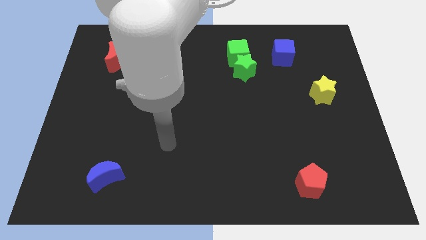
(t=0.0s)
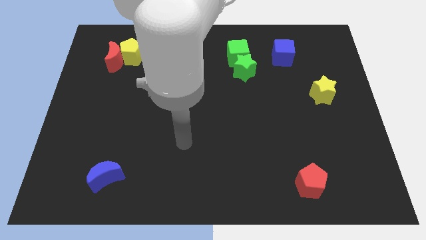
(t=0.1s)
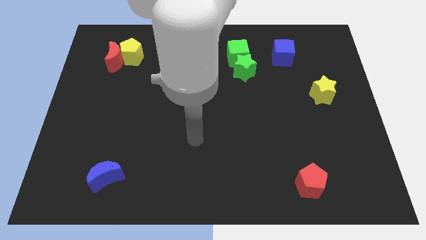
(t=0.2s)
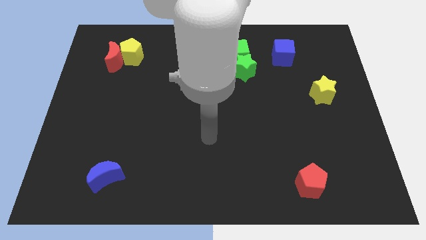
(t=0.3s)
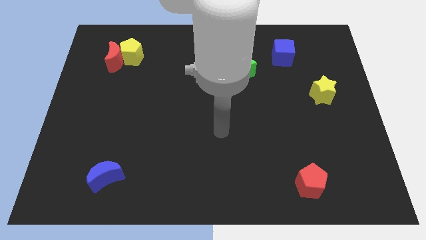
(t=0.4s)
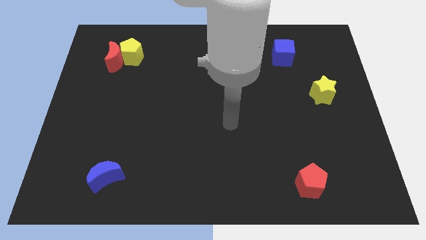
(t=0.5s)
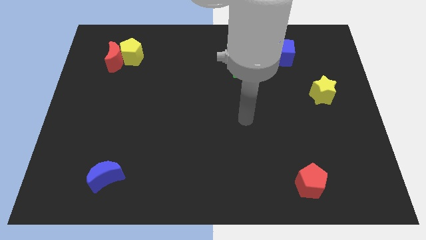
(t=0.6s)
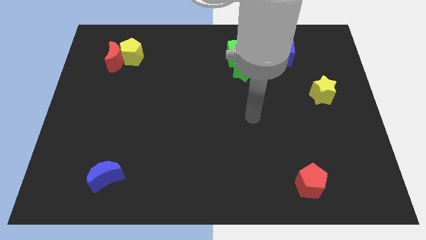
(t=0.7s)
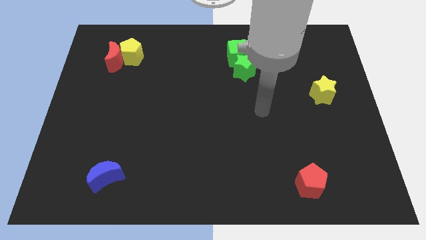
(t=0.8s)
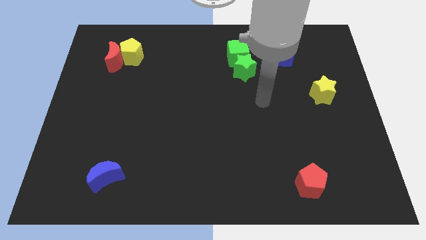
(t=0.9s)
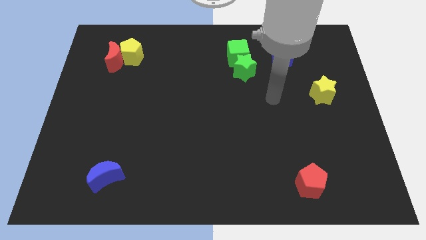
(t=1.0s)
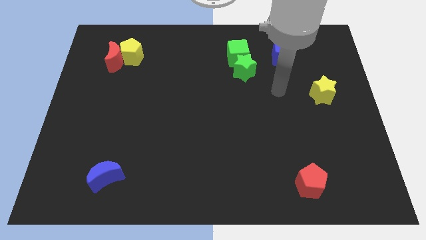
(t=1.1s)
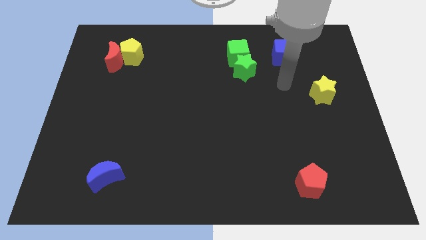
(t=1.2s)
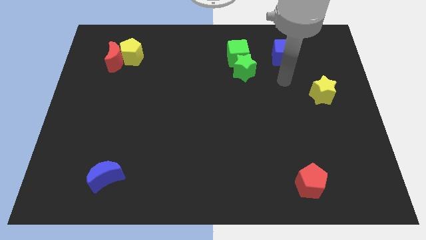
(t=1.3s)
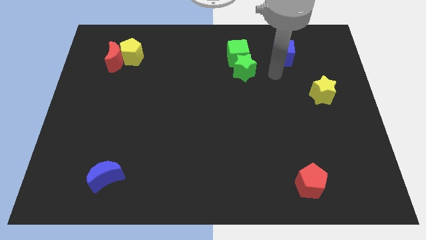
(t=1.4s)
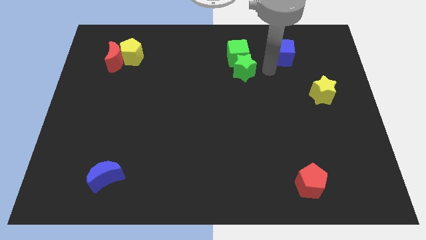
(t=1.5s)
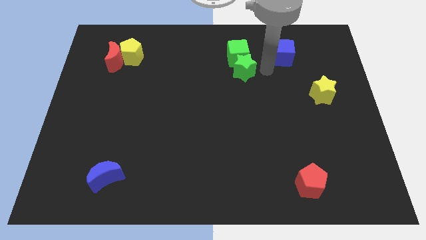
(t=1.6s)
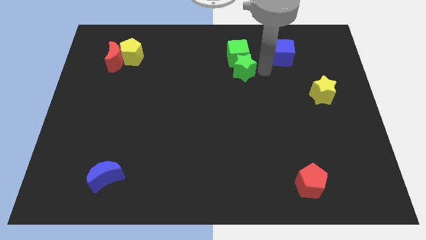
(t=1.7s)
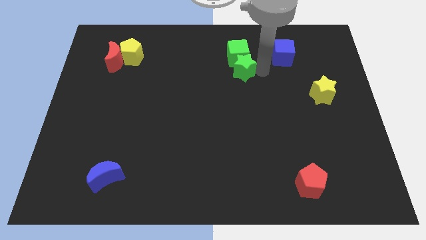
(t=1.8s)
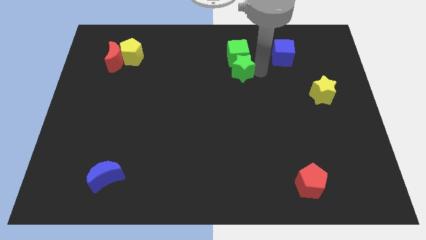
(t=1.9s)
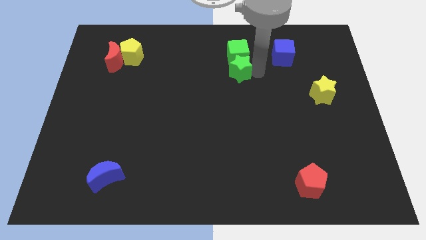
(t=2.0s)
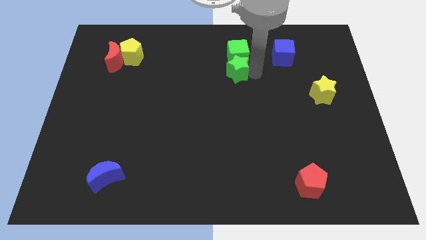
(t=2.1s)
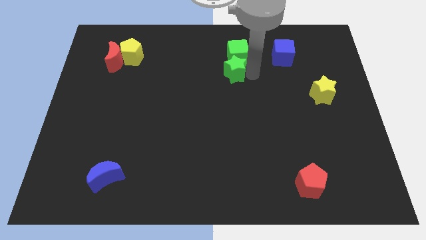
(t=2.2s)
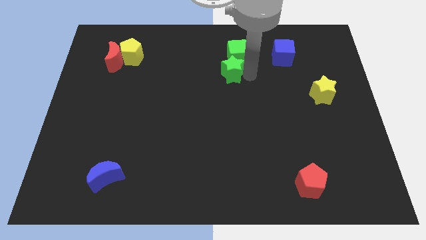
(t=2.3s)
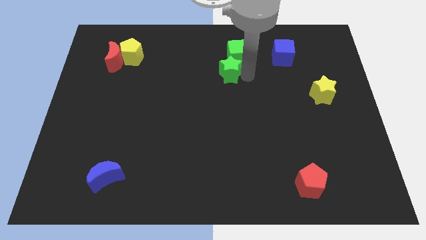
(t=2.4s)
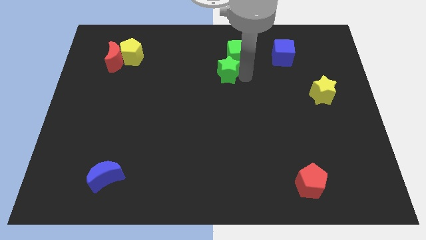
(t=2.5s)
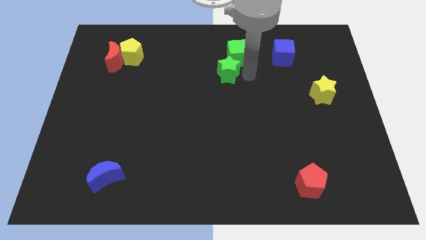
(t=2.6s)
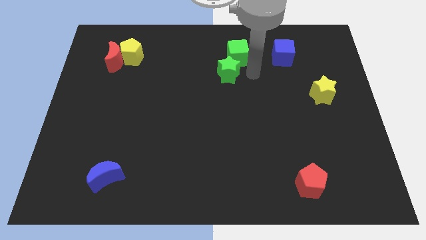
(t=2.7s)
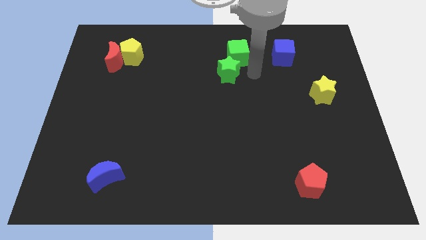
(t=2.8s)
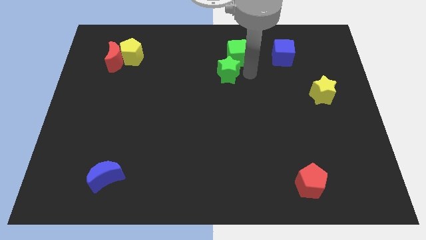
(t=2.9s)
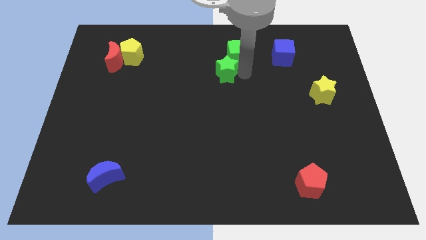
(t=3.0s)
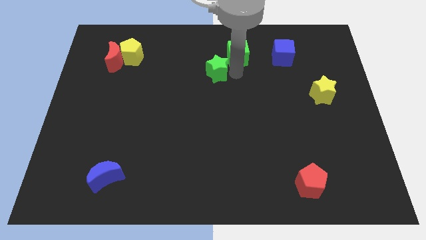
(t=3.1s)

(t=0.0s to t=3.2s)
slightly slide the green star left

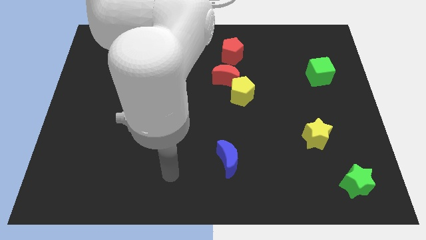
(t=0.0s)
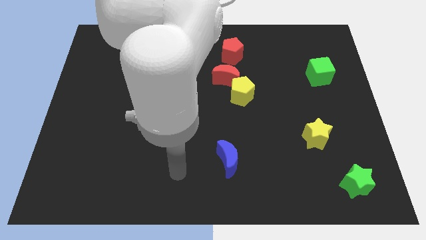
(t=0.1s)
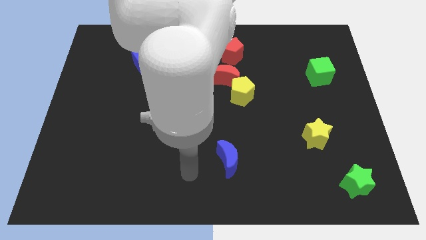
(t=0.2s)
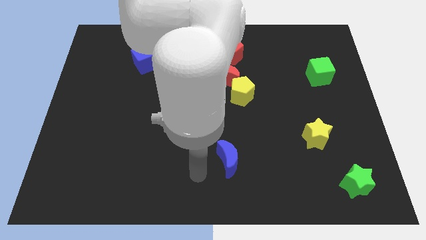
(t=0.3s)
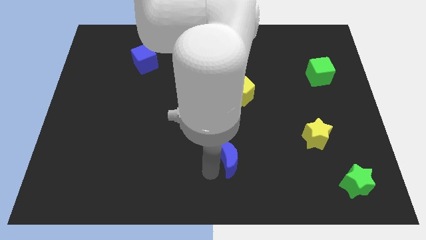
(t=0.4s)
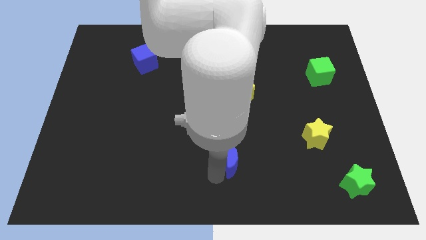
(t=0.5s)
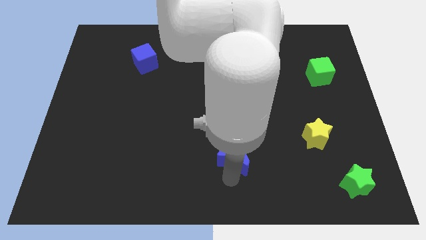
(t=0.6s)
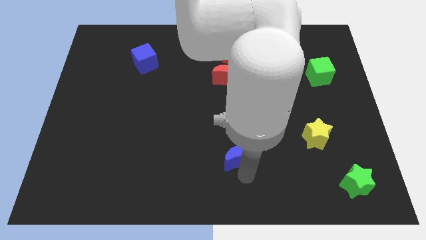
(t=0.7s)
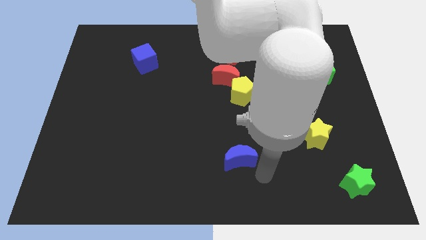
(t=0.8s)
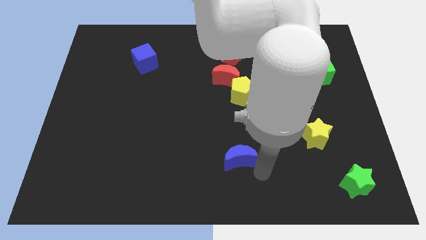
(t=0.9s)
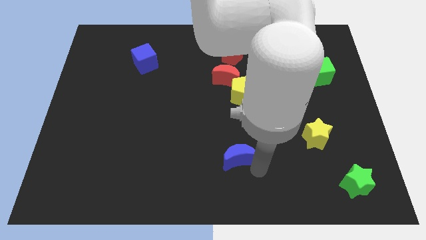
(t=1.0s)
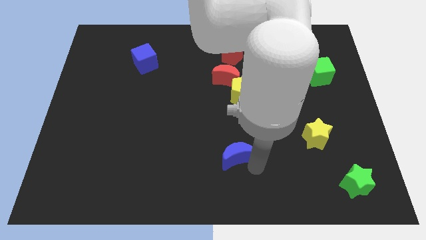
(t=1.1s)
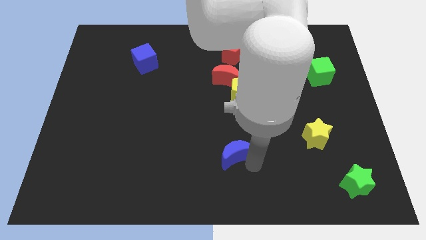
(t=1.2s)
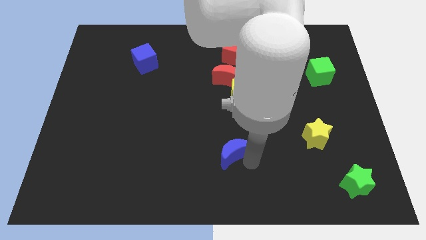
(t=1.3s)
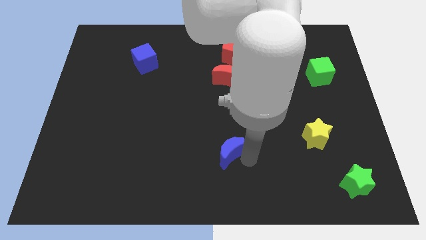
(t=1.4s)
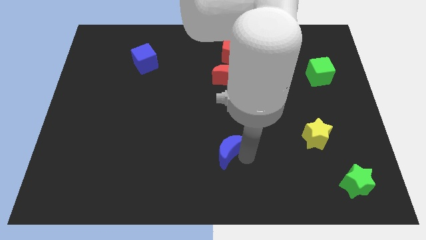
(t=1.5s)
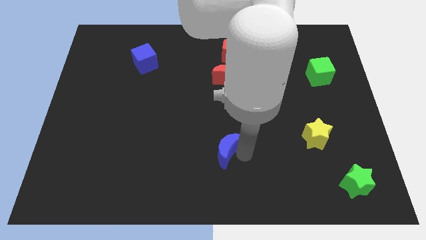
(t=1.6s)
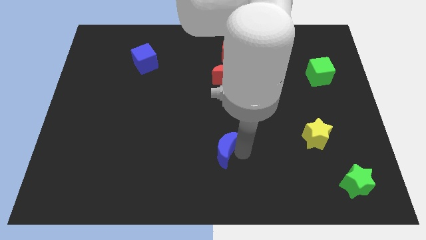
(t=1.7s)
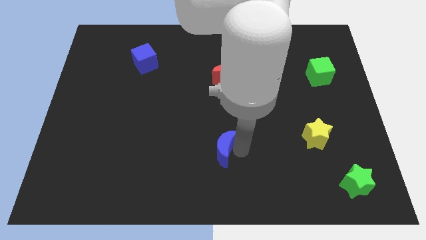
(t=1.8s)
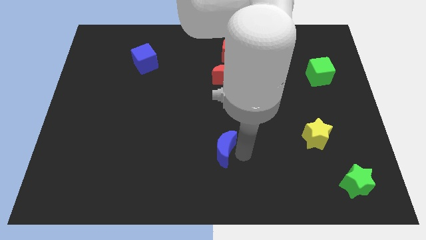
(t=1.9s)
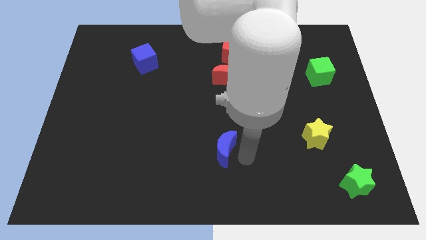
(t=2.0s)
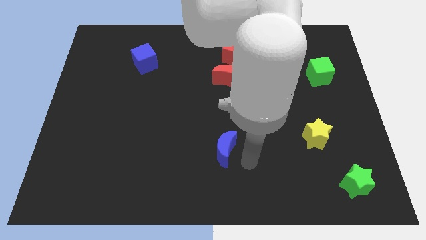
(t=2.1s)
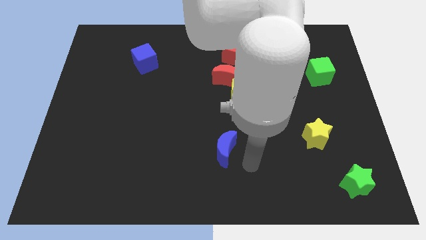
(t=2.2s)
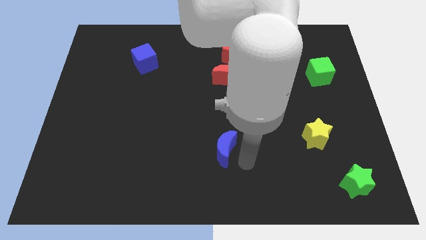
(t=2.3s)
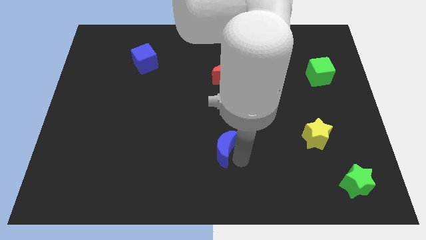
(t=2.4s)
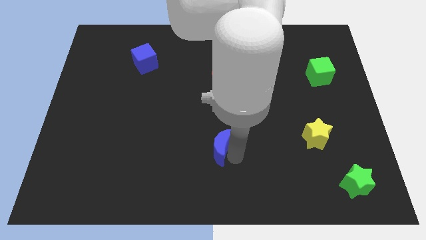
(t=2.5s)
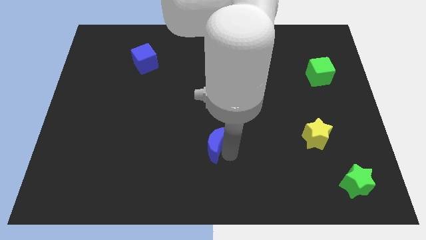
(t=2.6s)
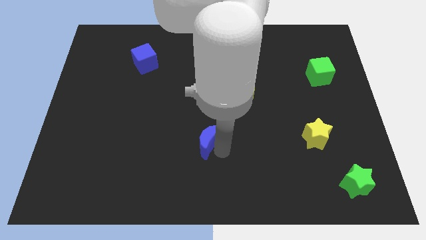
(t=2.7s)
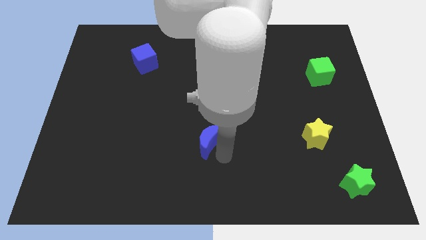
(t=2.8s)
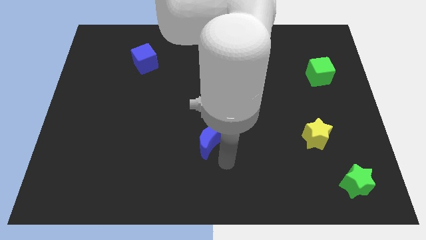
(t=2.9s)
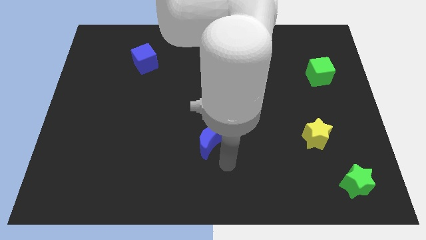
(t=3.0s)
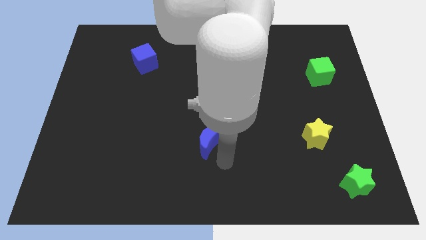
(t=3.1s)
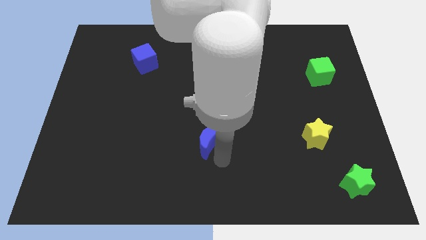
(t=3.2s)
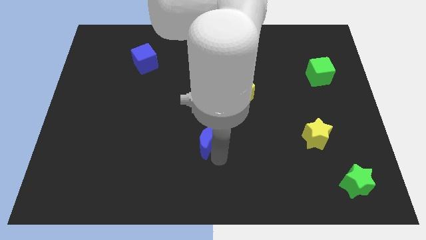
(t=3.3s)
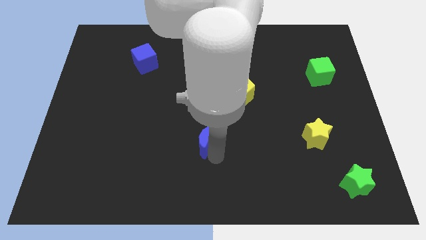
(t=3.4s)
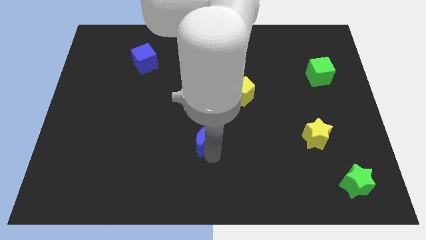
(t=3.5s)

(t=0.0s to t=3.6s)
slide the blue moon a little up and left diagonally

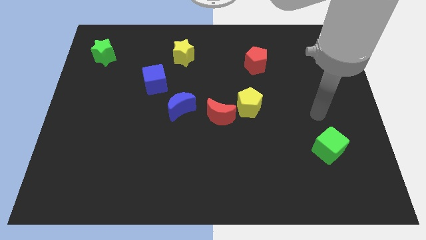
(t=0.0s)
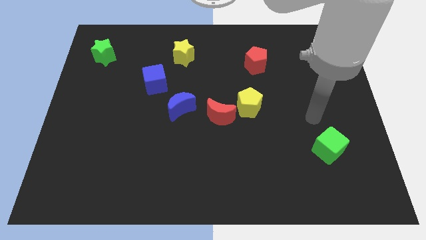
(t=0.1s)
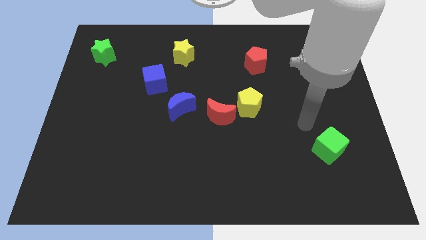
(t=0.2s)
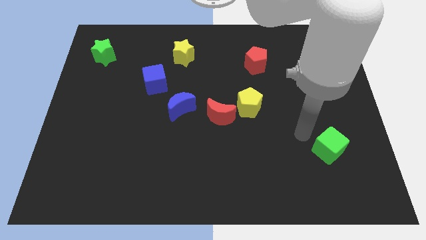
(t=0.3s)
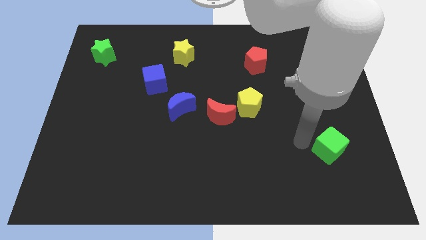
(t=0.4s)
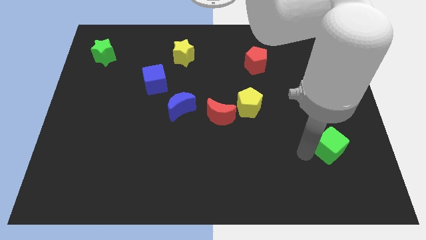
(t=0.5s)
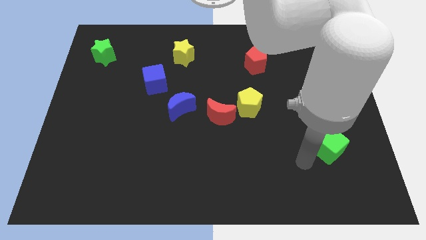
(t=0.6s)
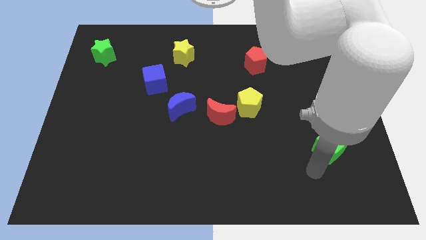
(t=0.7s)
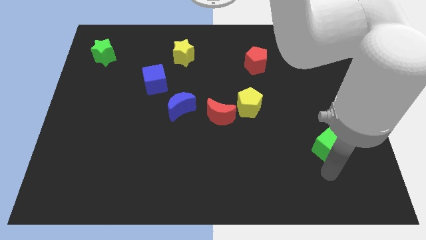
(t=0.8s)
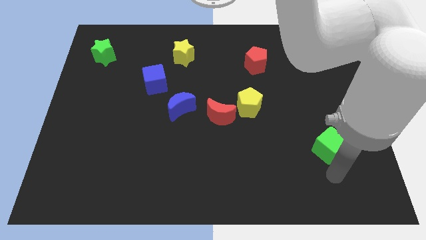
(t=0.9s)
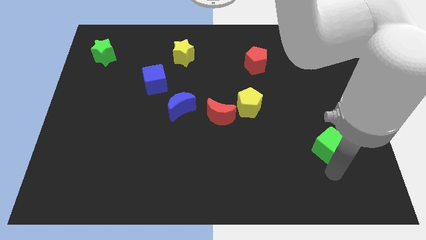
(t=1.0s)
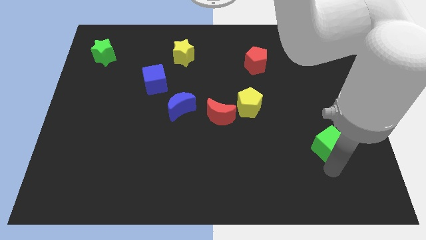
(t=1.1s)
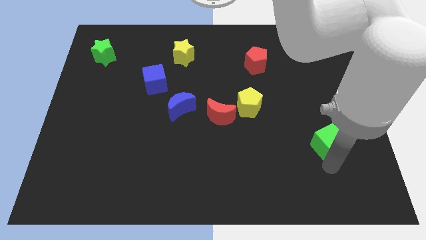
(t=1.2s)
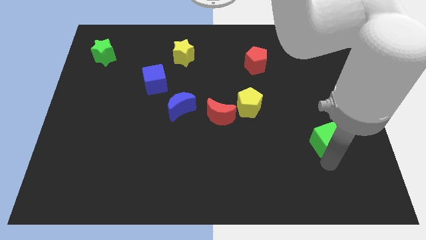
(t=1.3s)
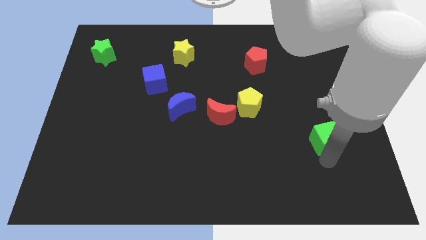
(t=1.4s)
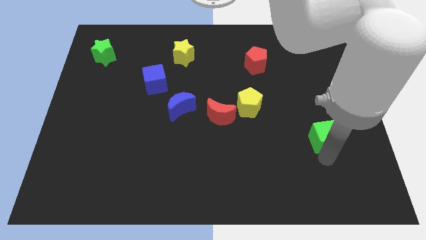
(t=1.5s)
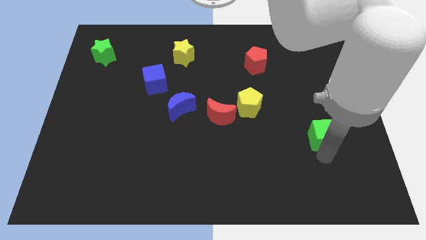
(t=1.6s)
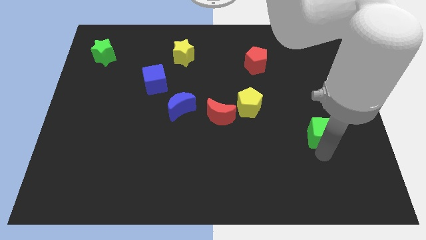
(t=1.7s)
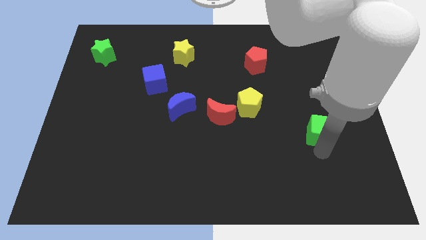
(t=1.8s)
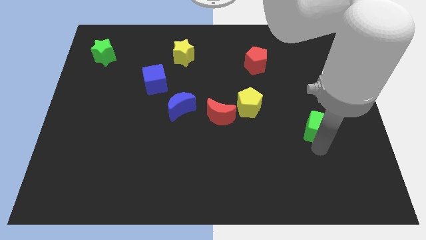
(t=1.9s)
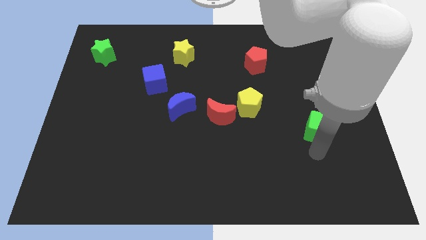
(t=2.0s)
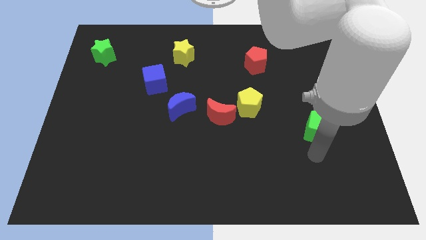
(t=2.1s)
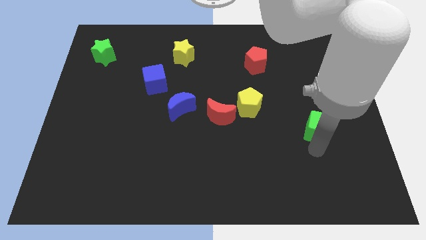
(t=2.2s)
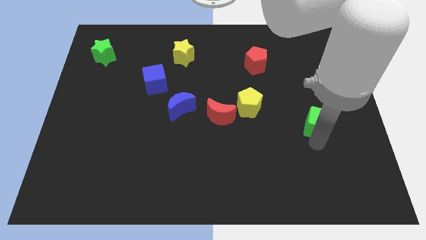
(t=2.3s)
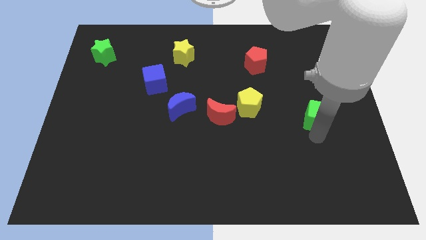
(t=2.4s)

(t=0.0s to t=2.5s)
move the green cube a little up
